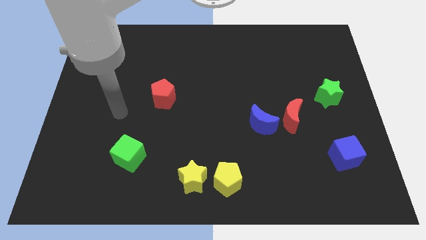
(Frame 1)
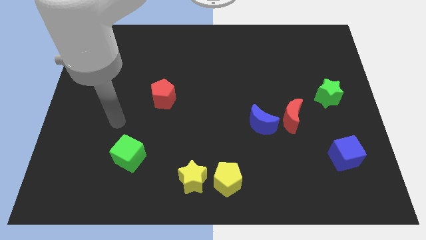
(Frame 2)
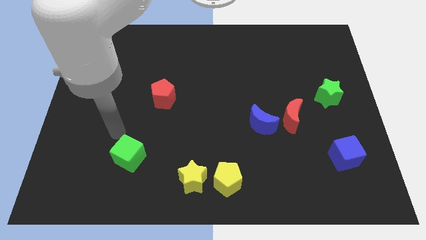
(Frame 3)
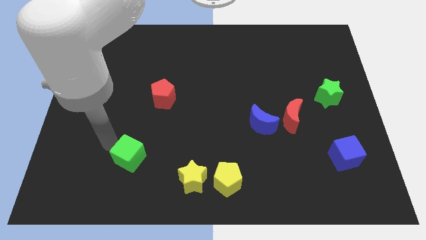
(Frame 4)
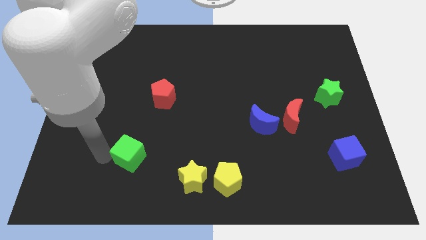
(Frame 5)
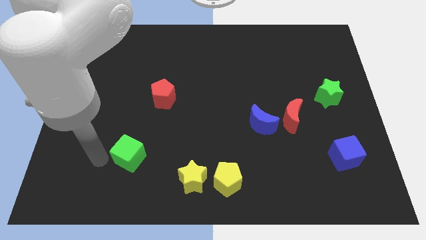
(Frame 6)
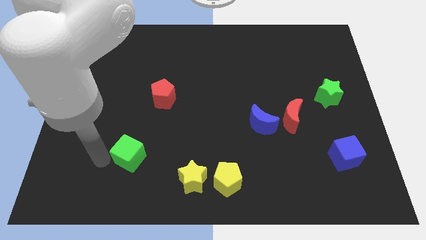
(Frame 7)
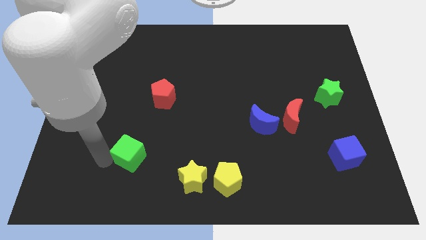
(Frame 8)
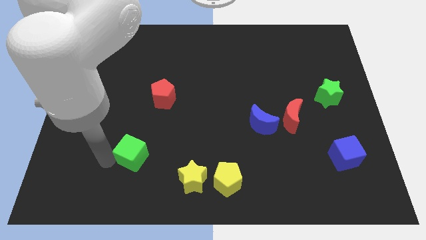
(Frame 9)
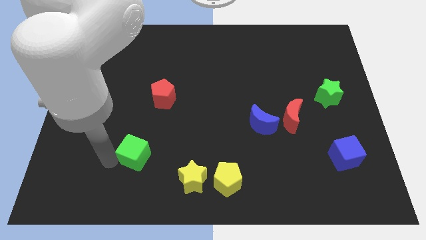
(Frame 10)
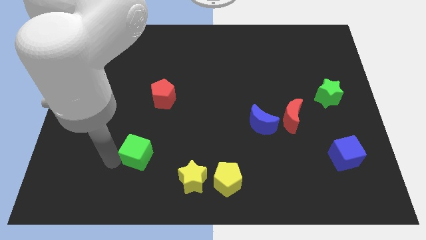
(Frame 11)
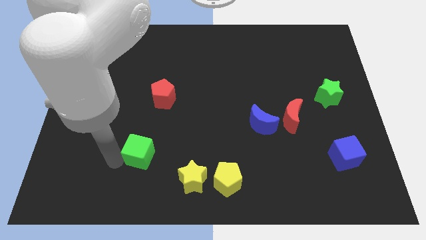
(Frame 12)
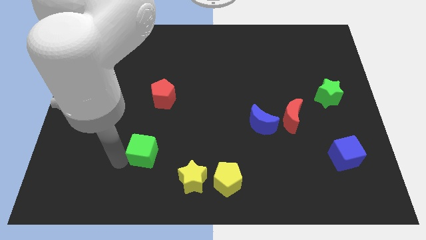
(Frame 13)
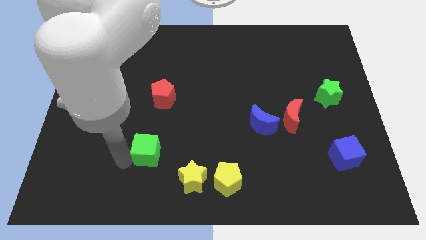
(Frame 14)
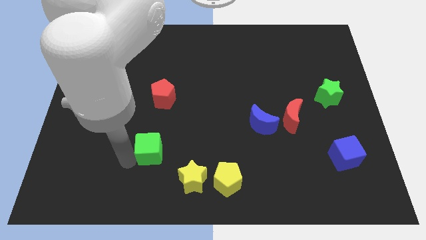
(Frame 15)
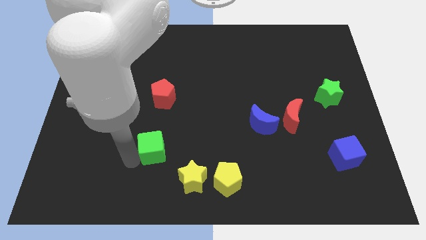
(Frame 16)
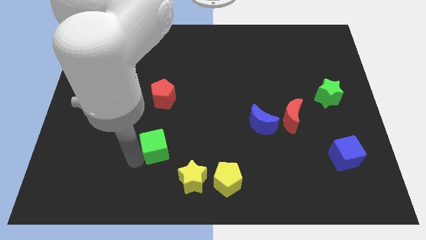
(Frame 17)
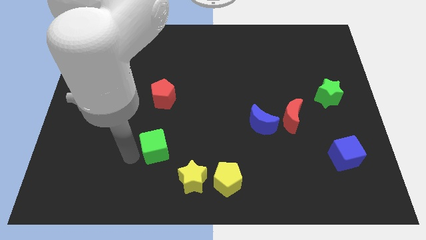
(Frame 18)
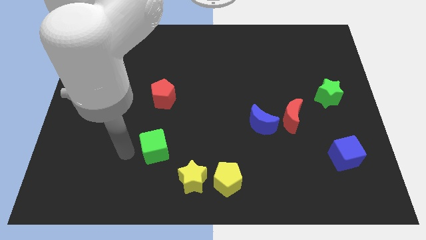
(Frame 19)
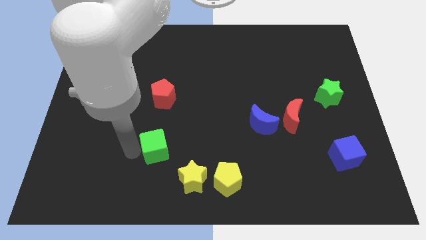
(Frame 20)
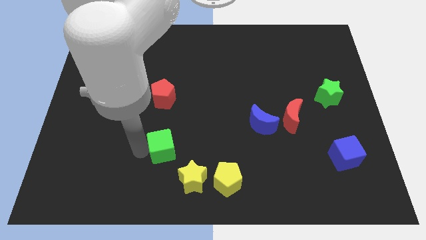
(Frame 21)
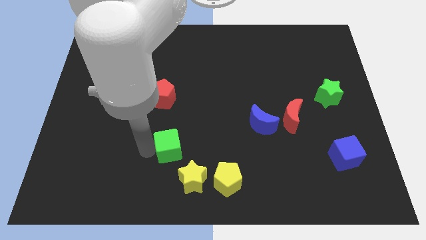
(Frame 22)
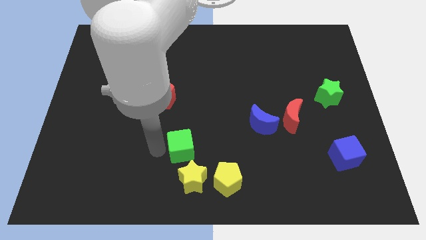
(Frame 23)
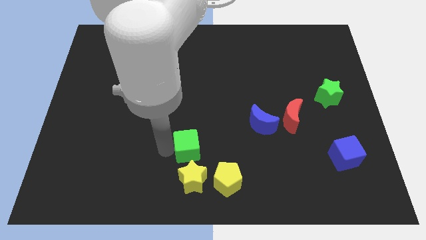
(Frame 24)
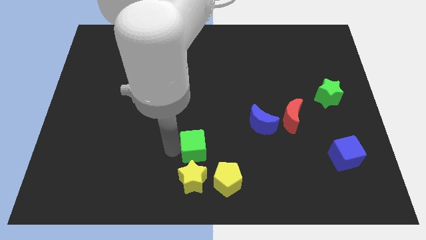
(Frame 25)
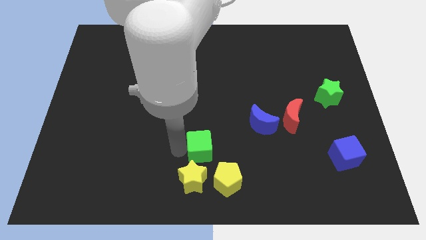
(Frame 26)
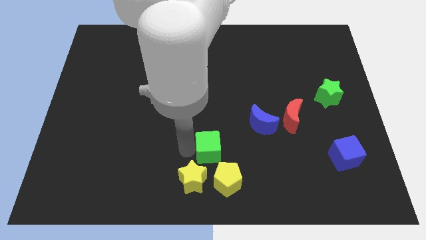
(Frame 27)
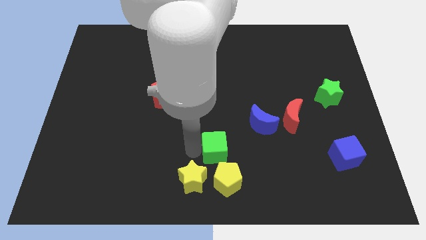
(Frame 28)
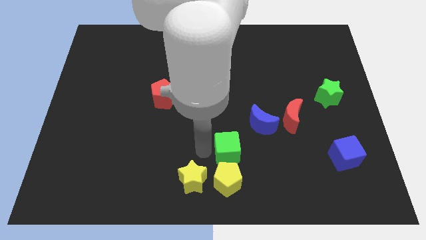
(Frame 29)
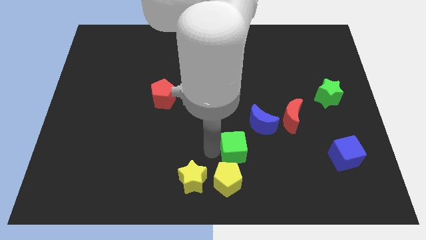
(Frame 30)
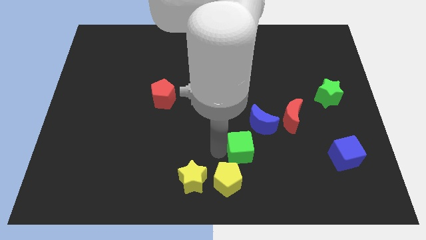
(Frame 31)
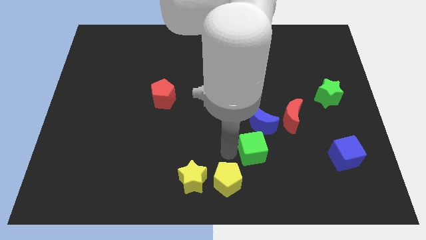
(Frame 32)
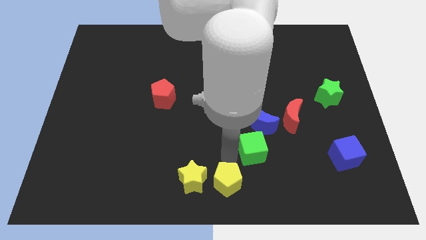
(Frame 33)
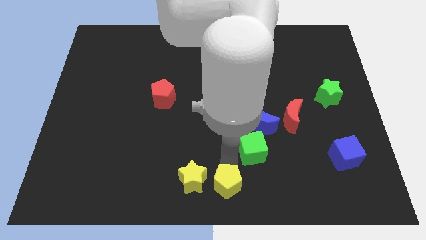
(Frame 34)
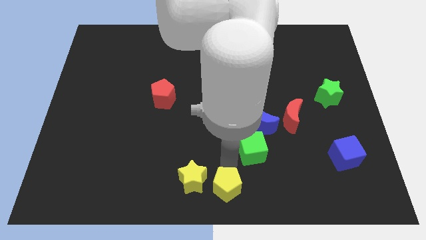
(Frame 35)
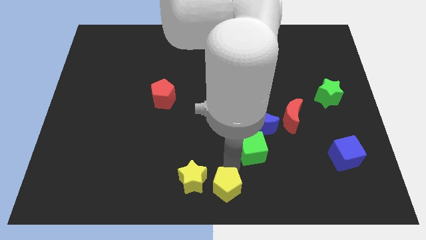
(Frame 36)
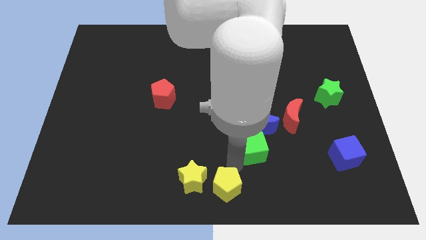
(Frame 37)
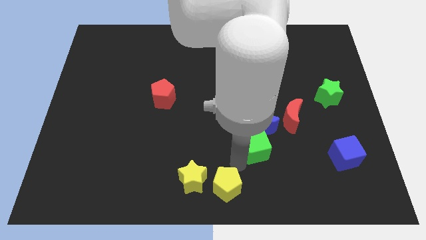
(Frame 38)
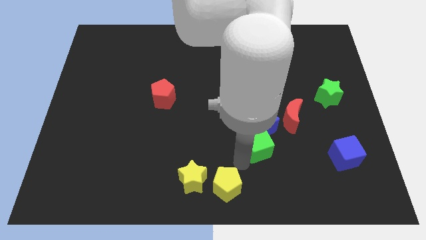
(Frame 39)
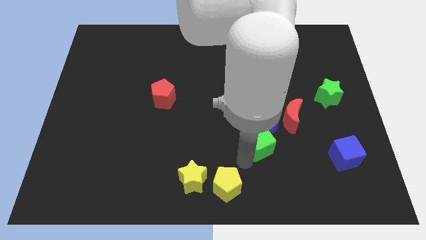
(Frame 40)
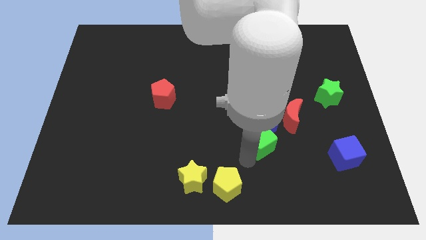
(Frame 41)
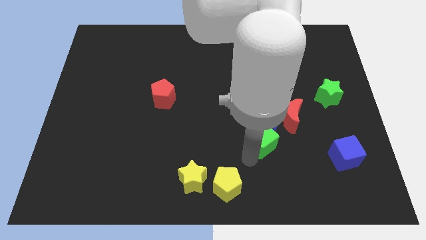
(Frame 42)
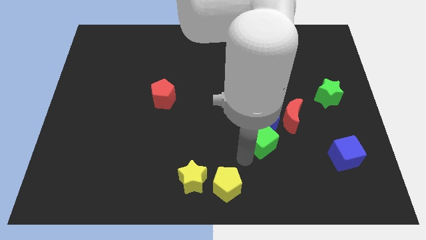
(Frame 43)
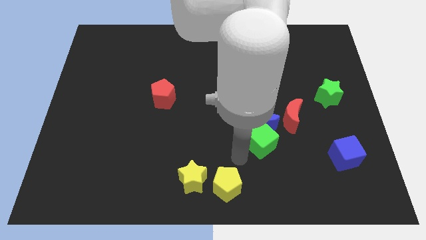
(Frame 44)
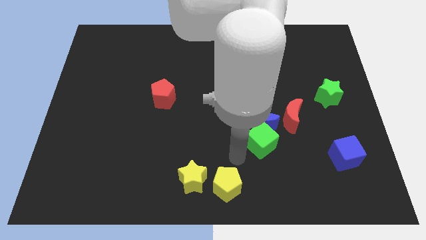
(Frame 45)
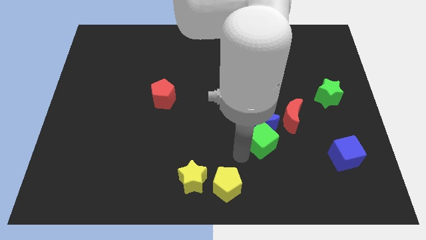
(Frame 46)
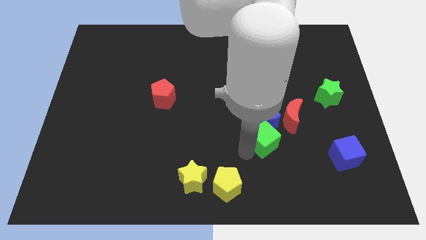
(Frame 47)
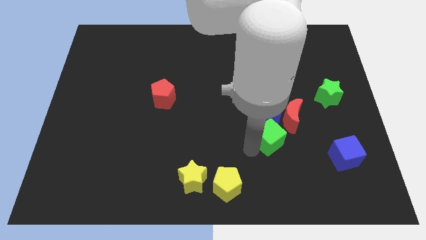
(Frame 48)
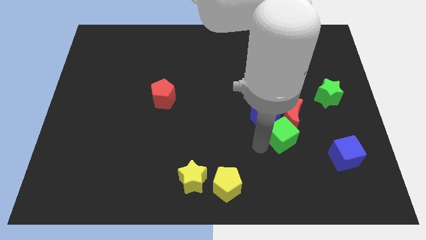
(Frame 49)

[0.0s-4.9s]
move the green cube next to the red moon

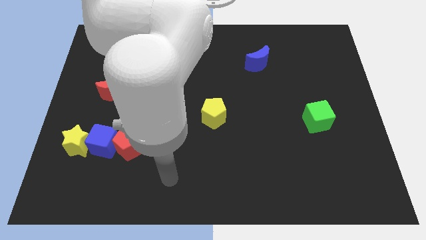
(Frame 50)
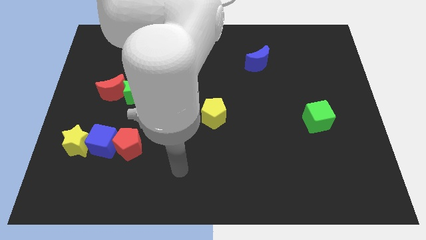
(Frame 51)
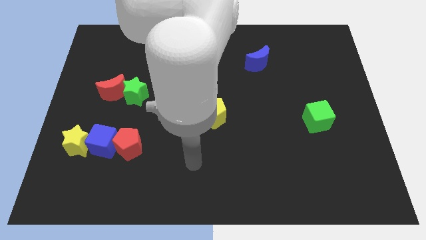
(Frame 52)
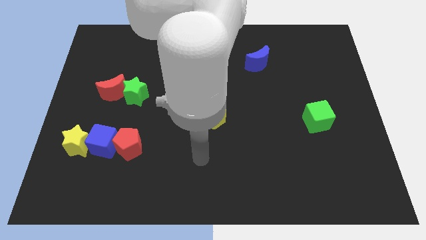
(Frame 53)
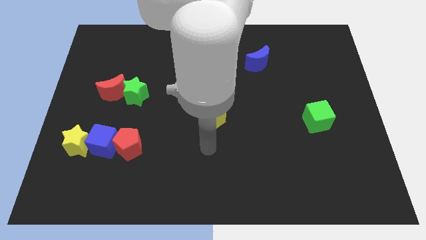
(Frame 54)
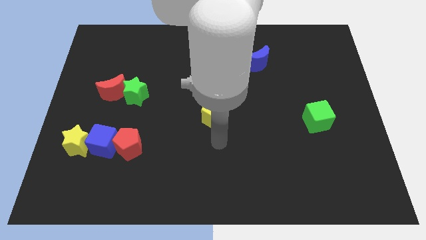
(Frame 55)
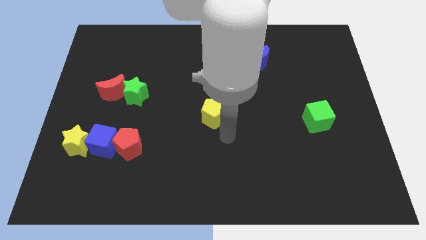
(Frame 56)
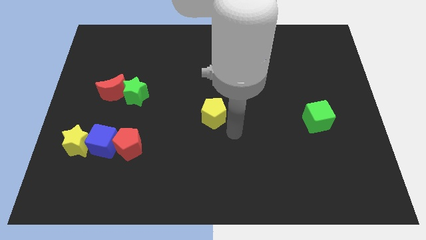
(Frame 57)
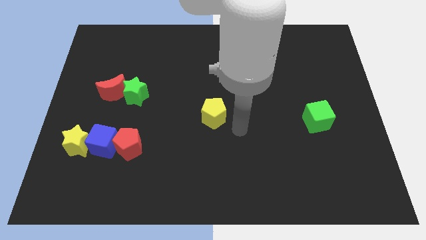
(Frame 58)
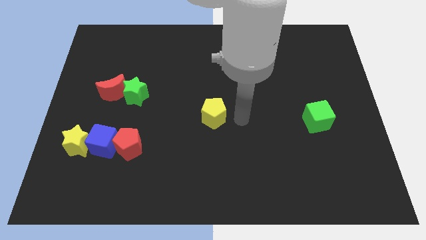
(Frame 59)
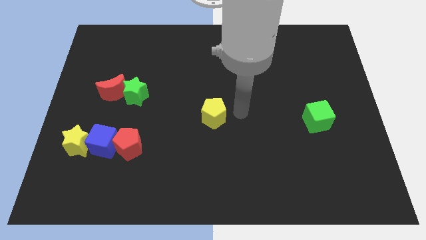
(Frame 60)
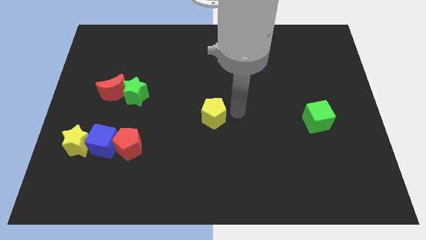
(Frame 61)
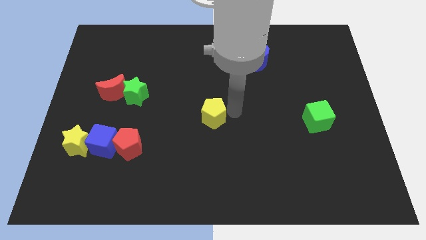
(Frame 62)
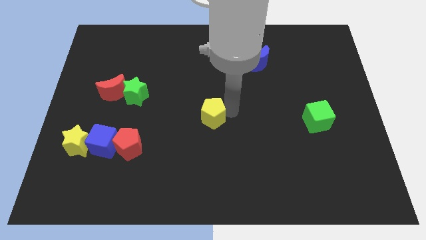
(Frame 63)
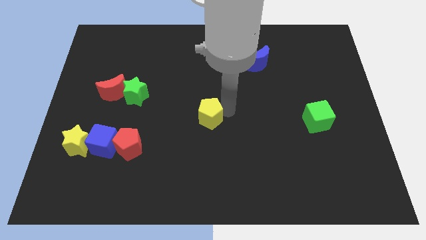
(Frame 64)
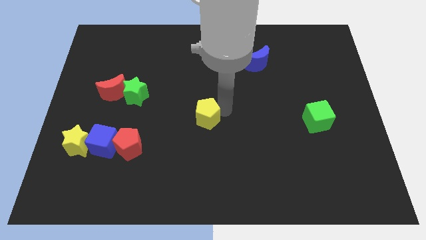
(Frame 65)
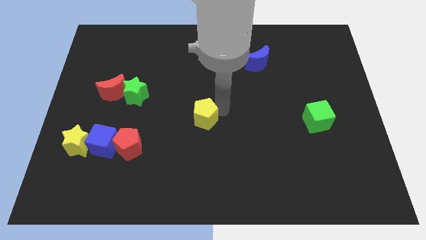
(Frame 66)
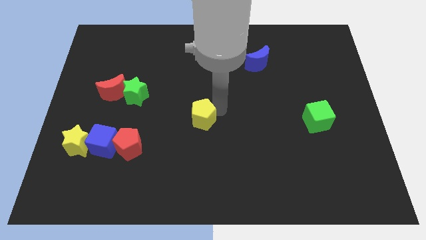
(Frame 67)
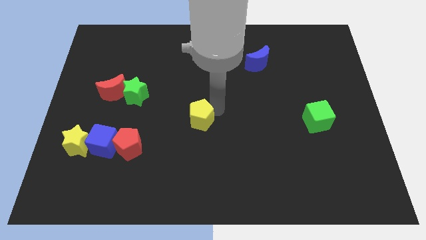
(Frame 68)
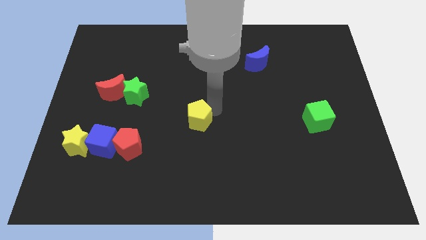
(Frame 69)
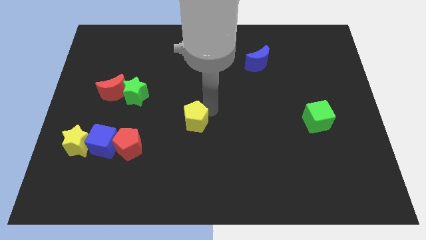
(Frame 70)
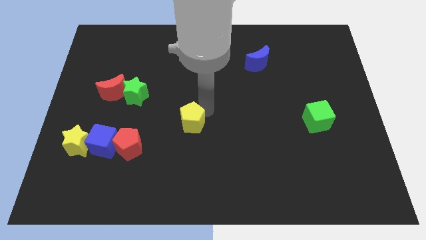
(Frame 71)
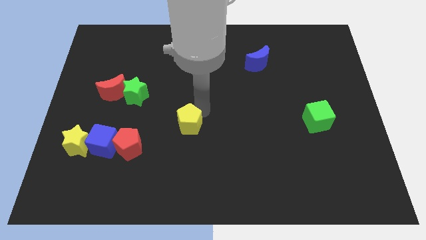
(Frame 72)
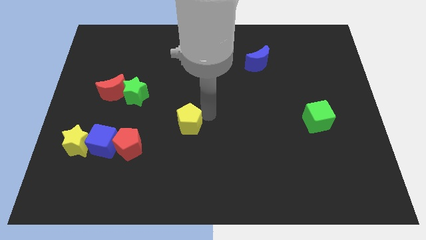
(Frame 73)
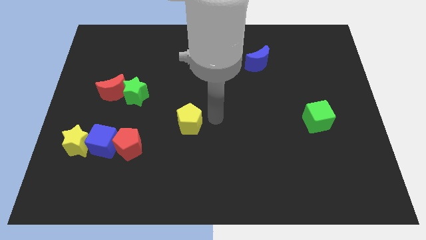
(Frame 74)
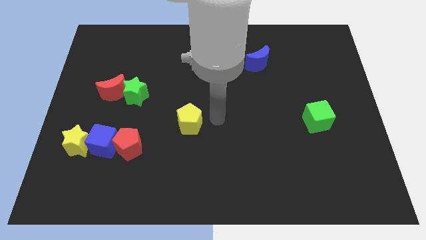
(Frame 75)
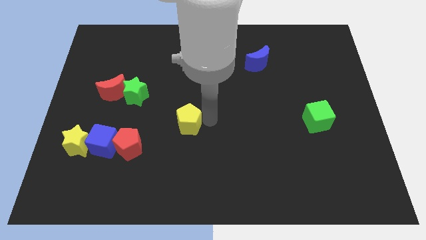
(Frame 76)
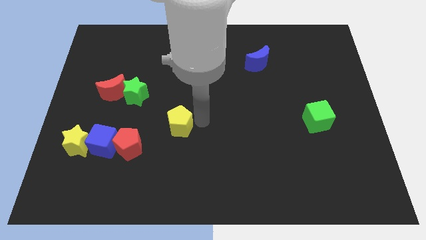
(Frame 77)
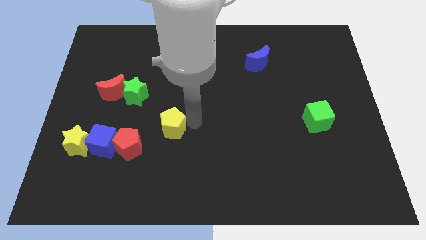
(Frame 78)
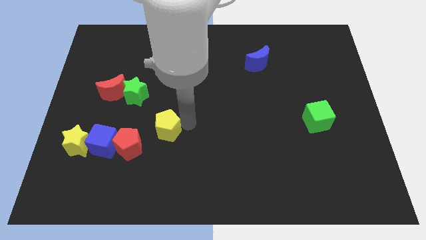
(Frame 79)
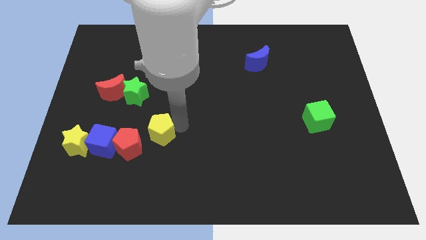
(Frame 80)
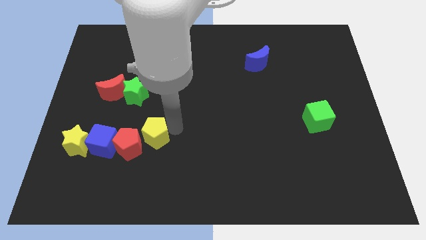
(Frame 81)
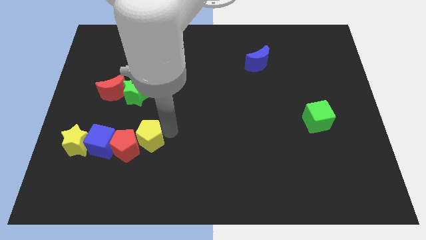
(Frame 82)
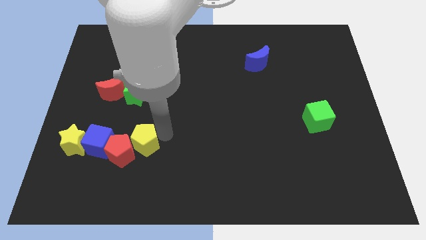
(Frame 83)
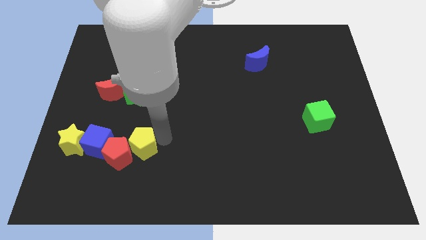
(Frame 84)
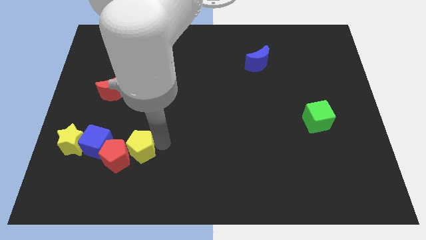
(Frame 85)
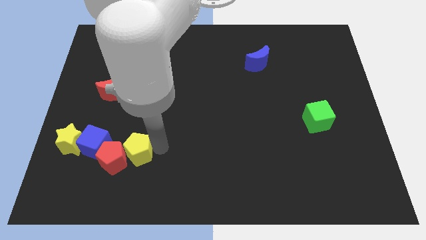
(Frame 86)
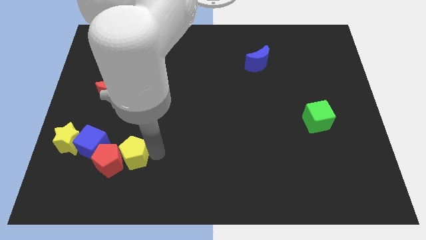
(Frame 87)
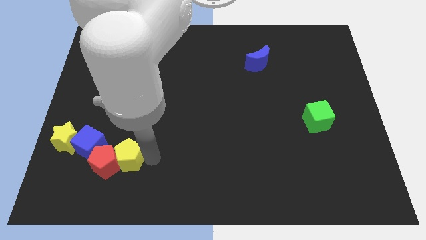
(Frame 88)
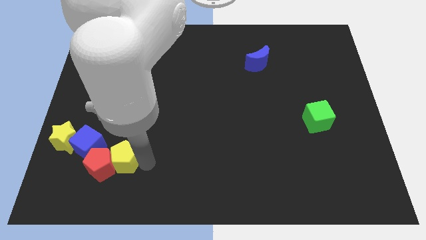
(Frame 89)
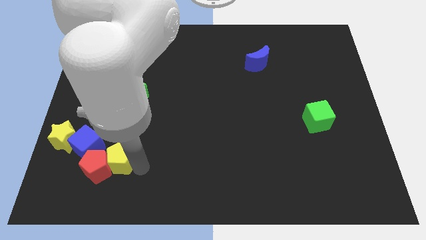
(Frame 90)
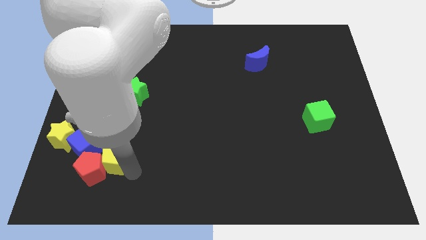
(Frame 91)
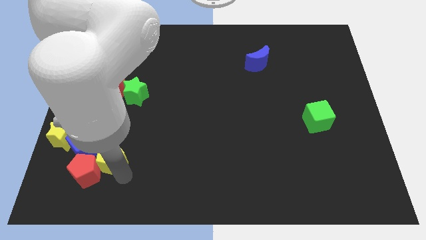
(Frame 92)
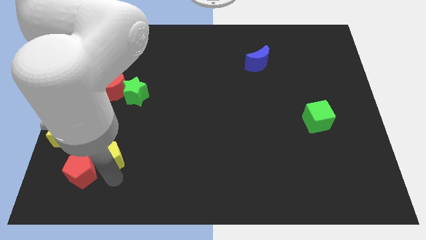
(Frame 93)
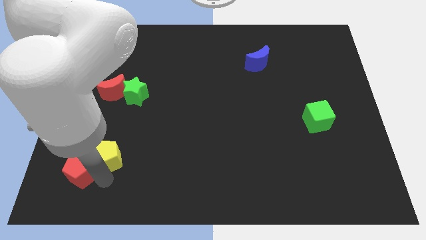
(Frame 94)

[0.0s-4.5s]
put the yellow pentagon next to the blue cube
